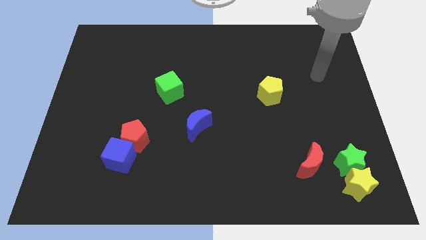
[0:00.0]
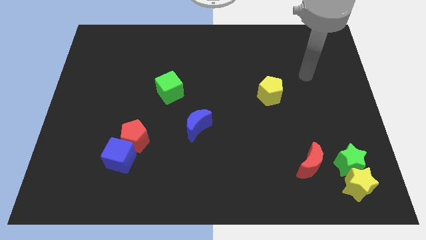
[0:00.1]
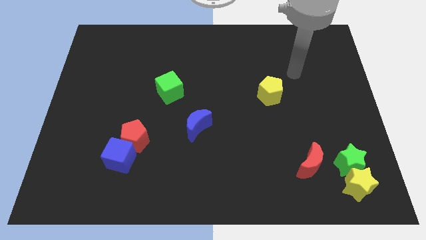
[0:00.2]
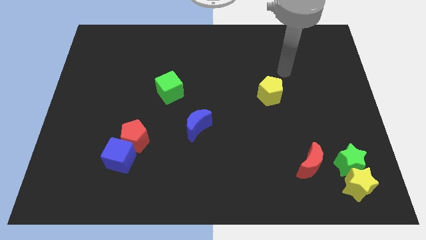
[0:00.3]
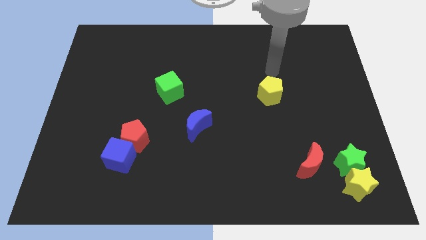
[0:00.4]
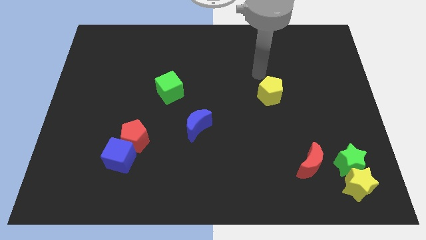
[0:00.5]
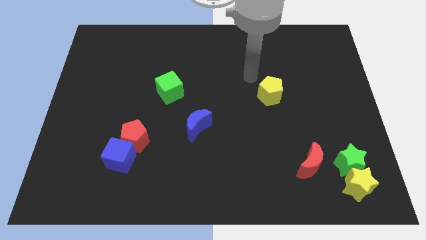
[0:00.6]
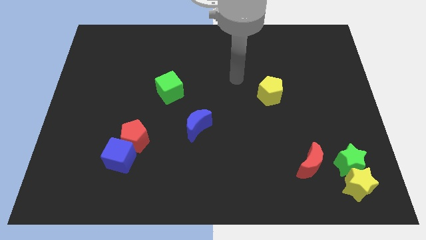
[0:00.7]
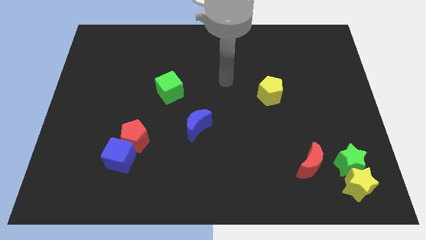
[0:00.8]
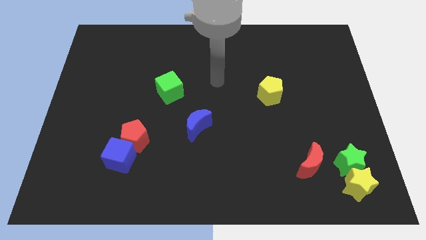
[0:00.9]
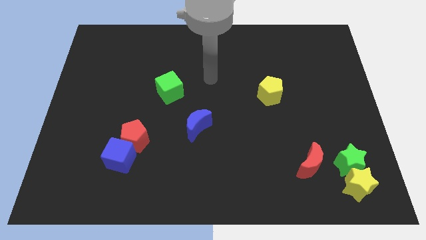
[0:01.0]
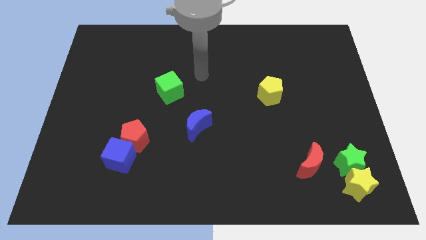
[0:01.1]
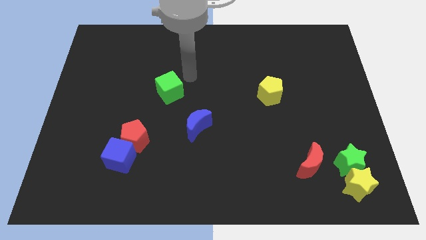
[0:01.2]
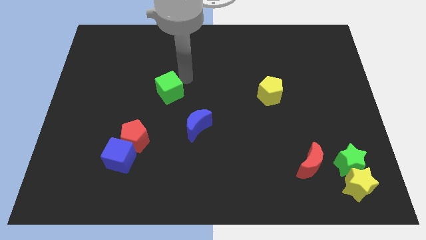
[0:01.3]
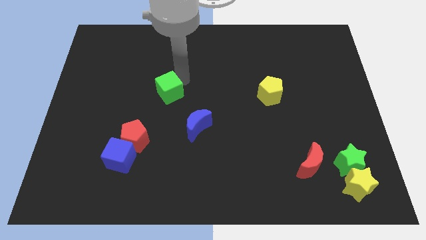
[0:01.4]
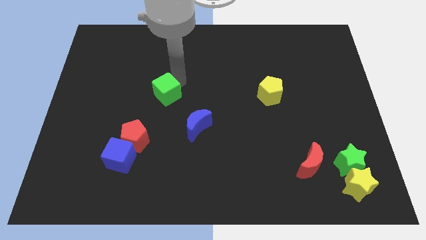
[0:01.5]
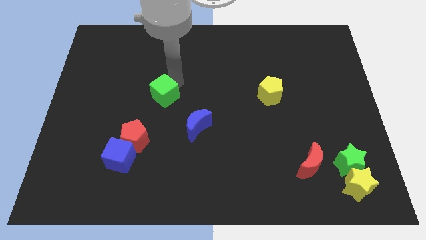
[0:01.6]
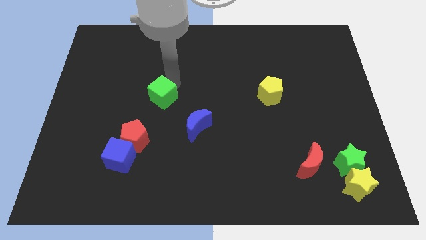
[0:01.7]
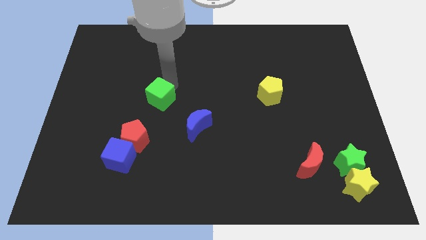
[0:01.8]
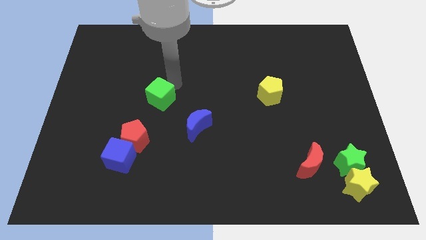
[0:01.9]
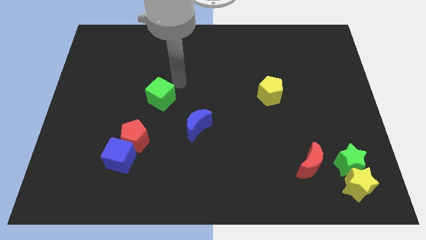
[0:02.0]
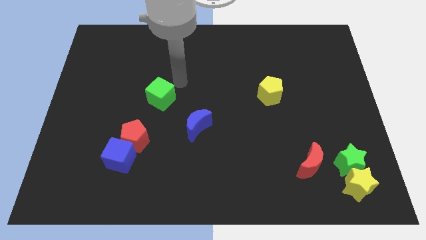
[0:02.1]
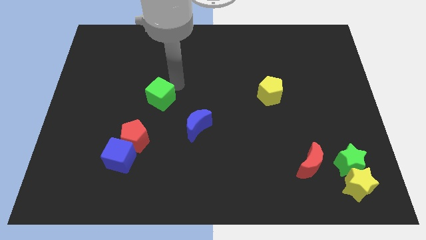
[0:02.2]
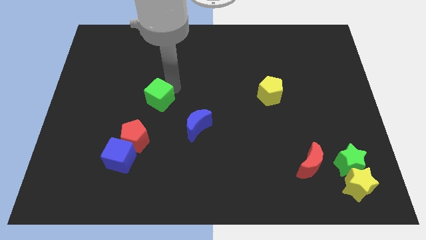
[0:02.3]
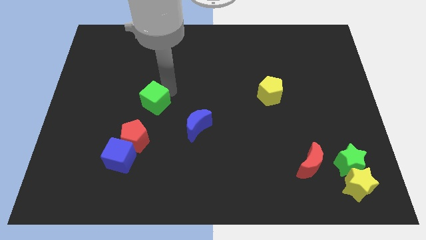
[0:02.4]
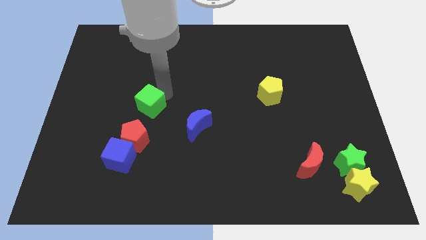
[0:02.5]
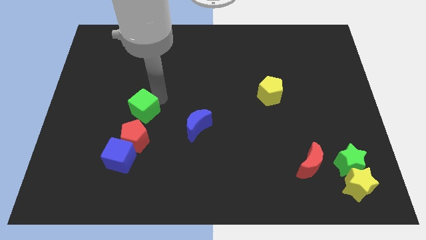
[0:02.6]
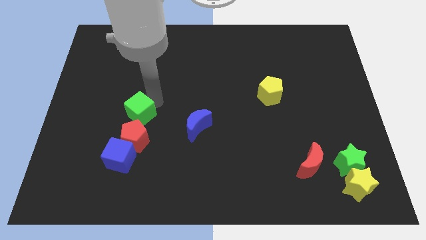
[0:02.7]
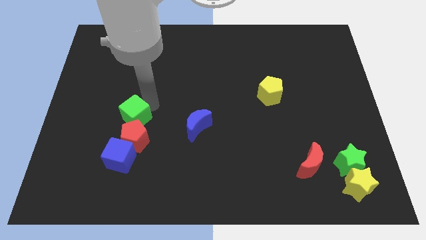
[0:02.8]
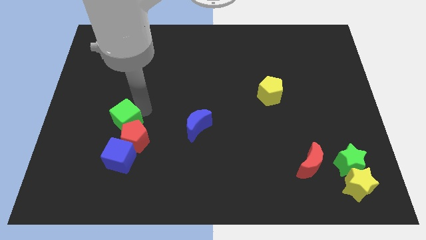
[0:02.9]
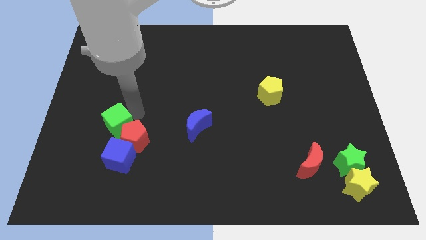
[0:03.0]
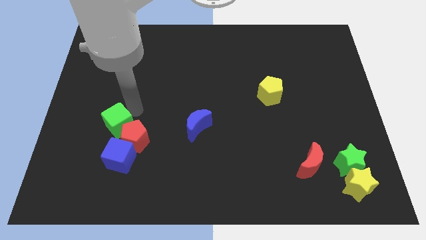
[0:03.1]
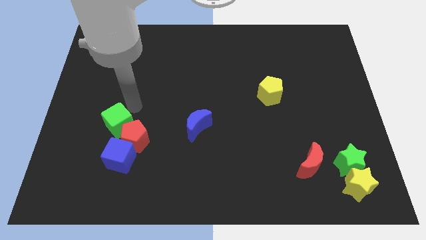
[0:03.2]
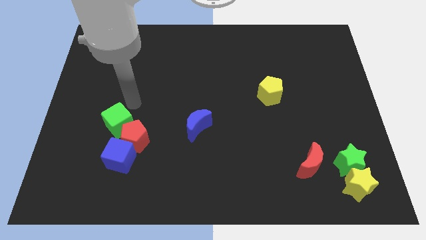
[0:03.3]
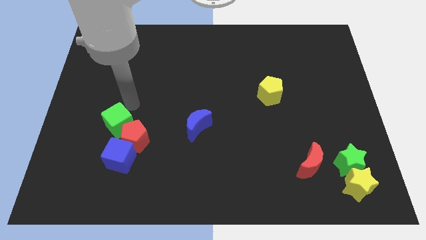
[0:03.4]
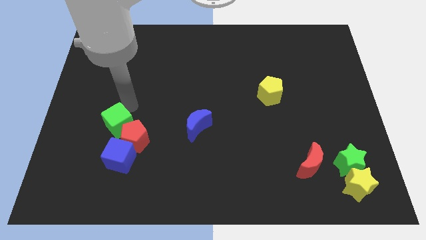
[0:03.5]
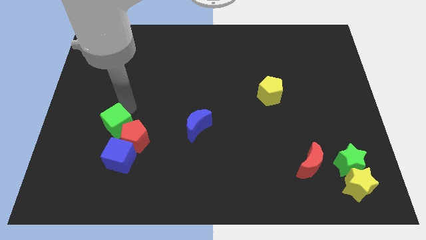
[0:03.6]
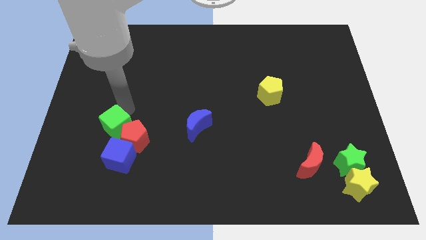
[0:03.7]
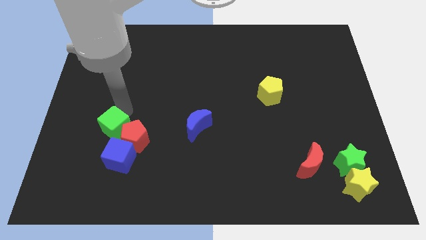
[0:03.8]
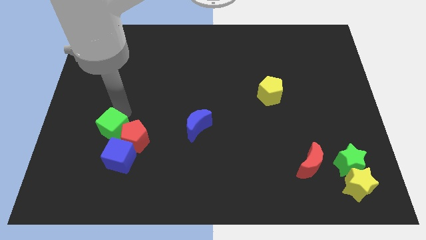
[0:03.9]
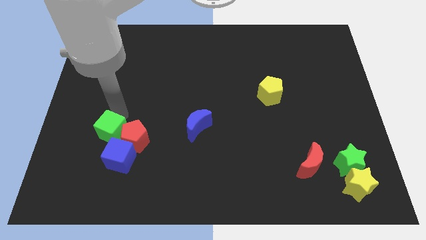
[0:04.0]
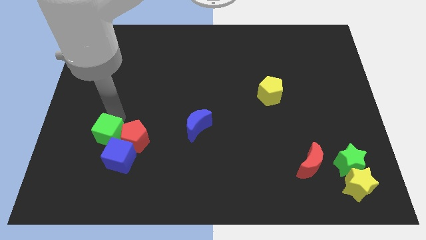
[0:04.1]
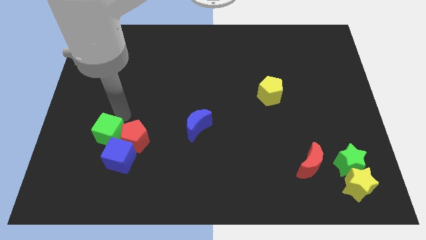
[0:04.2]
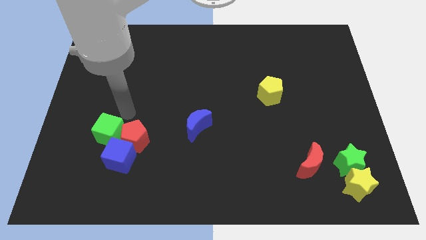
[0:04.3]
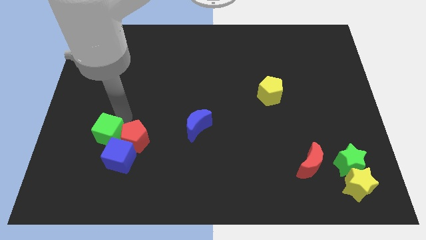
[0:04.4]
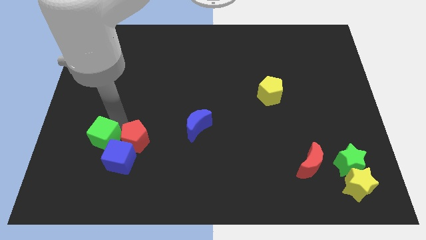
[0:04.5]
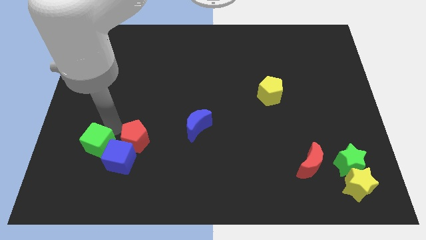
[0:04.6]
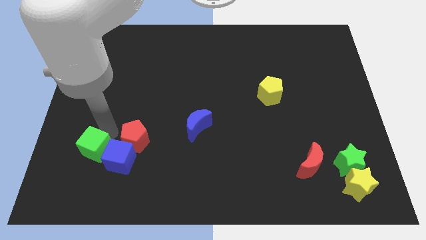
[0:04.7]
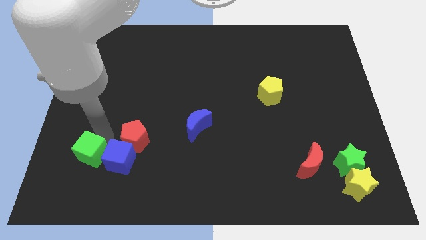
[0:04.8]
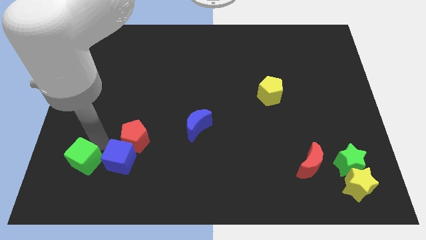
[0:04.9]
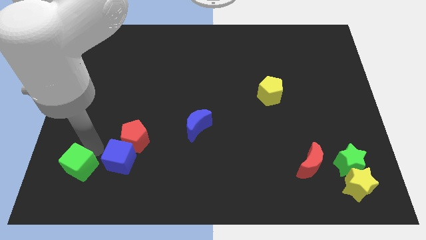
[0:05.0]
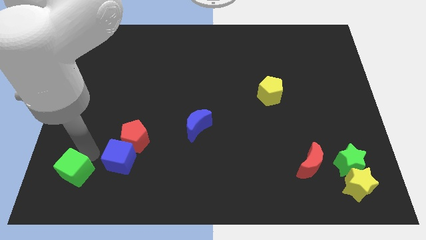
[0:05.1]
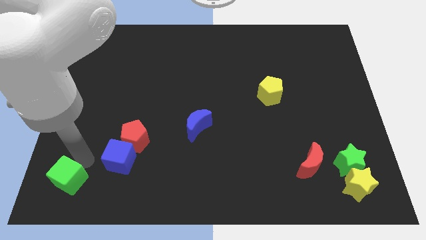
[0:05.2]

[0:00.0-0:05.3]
slide the green cube to the bottom left corner

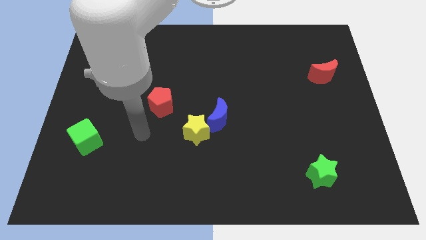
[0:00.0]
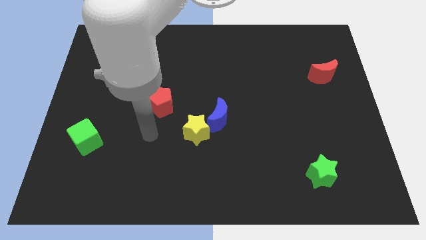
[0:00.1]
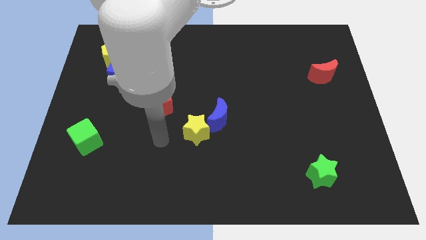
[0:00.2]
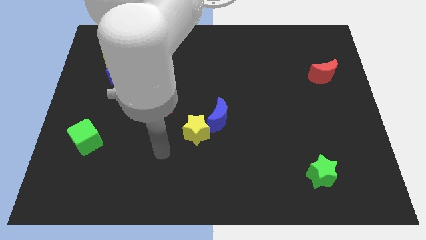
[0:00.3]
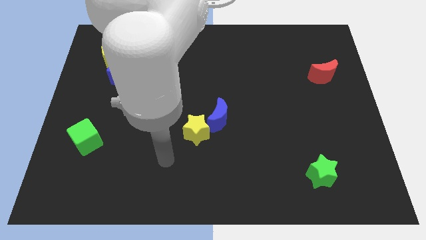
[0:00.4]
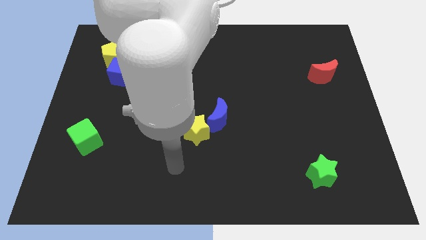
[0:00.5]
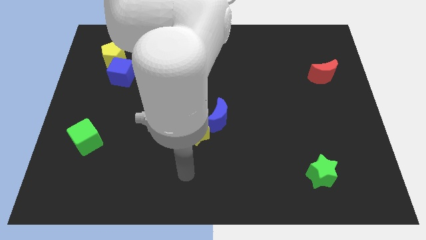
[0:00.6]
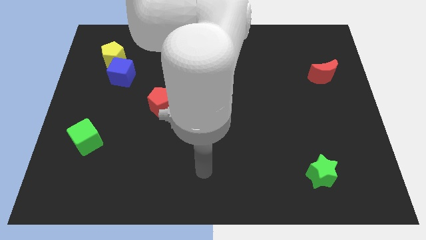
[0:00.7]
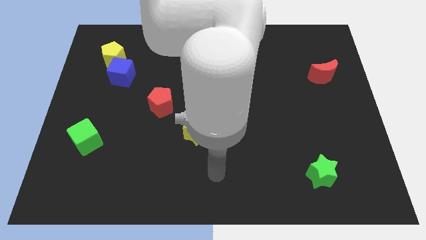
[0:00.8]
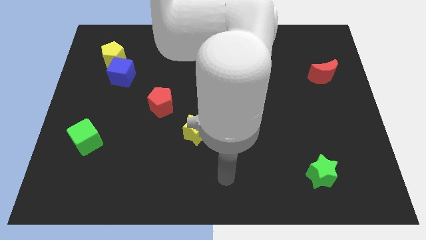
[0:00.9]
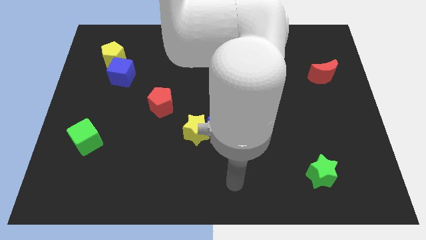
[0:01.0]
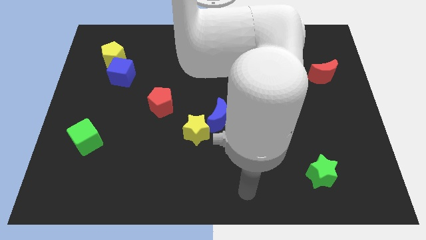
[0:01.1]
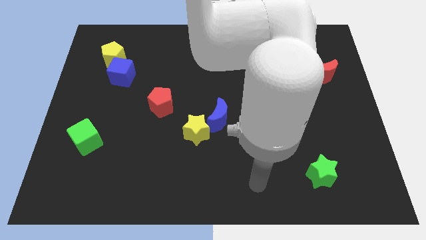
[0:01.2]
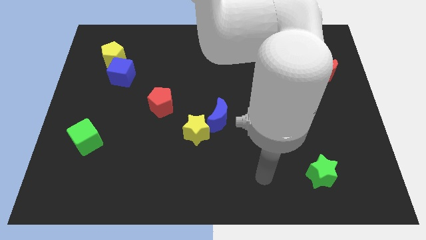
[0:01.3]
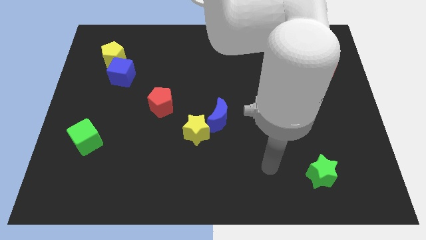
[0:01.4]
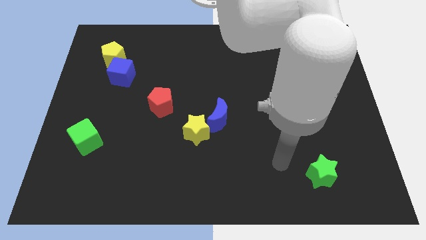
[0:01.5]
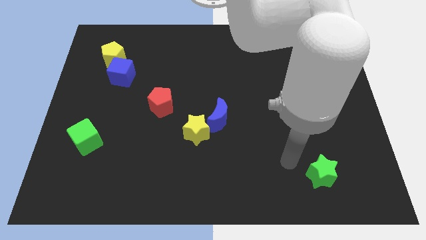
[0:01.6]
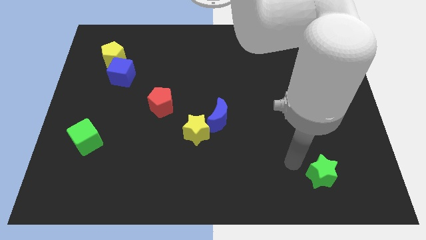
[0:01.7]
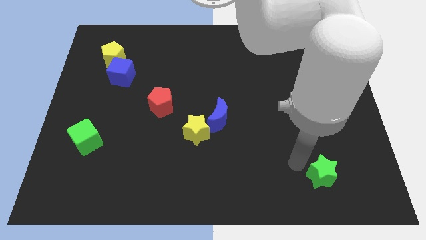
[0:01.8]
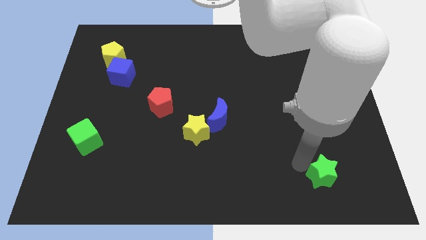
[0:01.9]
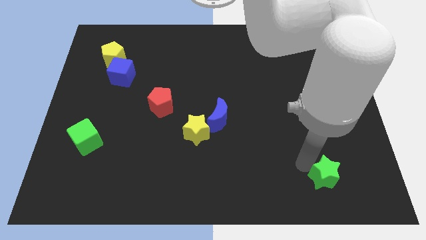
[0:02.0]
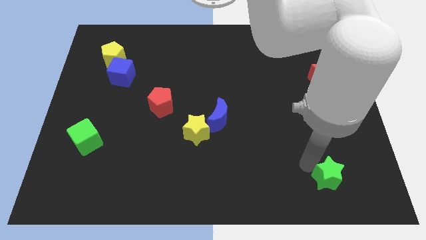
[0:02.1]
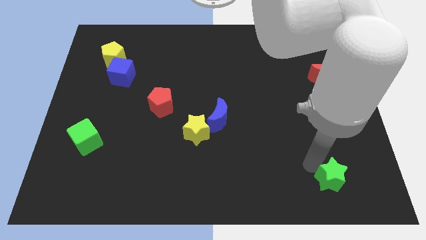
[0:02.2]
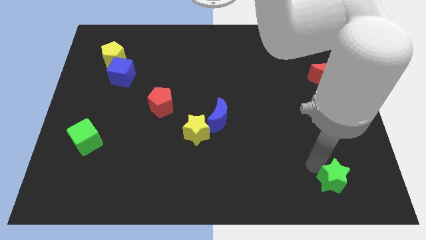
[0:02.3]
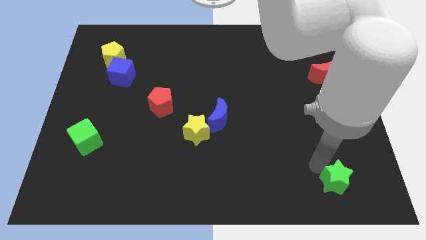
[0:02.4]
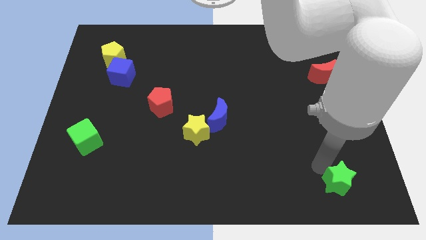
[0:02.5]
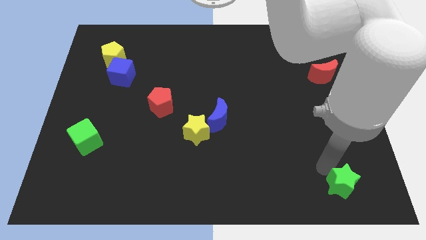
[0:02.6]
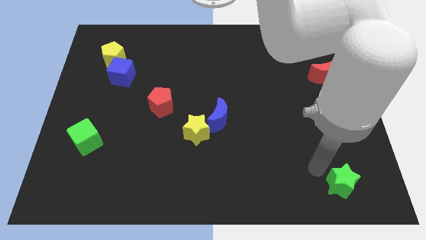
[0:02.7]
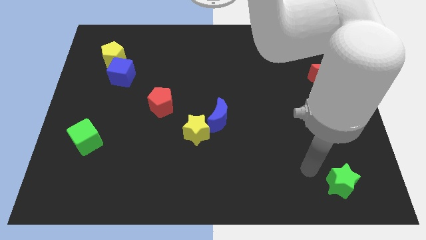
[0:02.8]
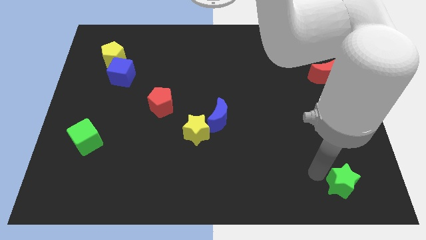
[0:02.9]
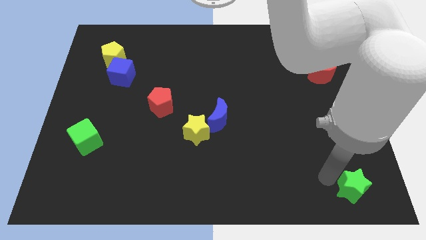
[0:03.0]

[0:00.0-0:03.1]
push the green star to the lower right corner
